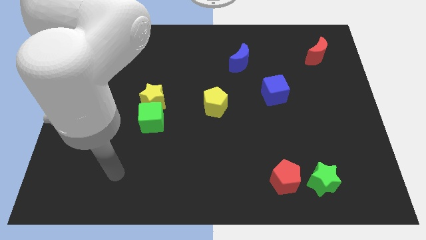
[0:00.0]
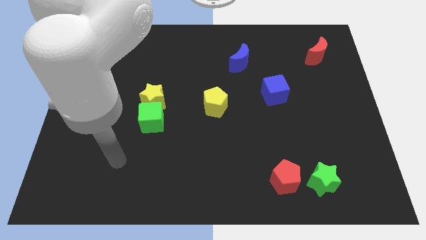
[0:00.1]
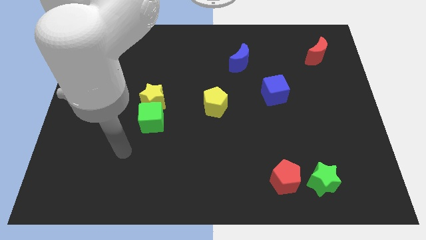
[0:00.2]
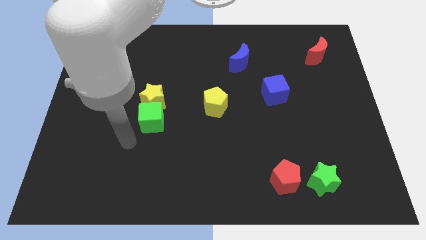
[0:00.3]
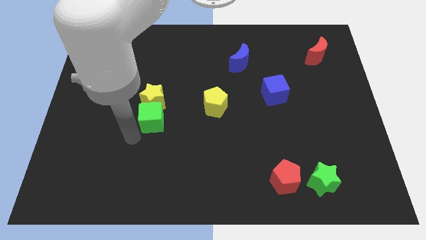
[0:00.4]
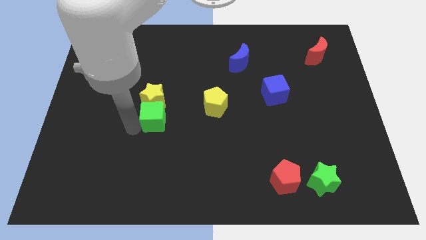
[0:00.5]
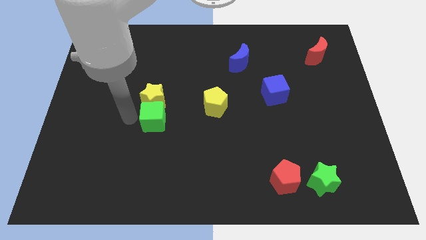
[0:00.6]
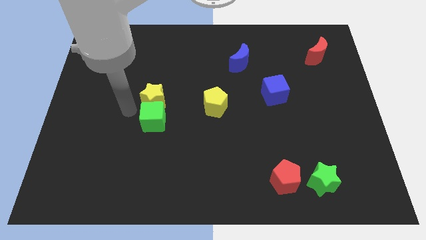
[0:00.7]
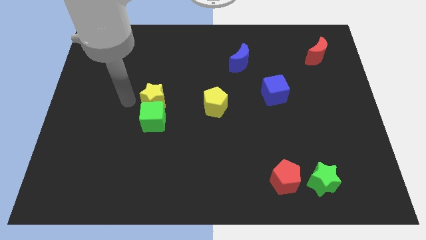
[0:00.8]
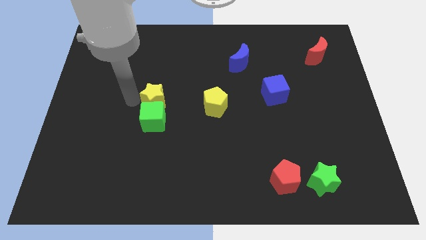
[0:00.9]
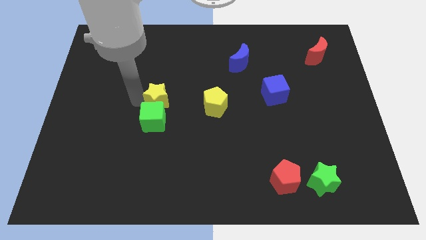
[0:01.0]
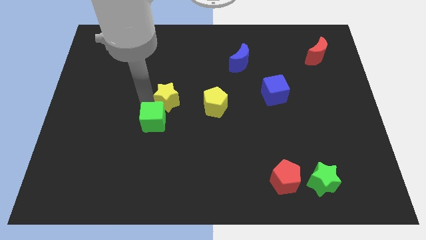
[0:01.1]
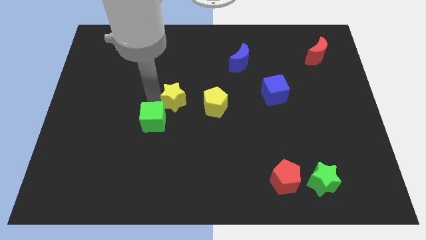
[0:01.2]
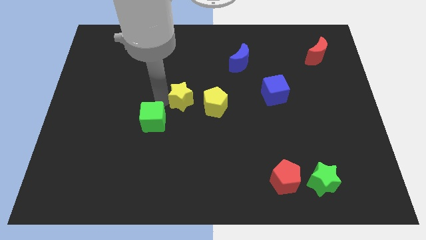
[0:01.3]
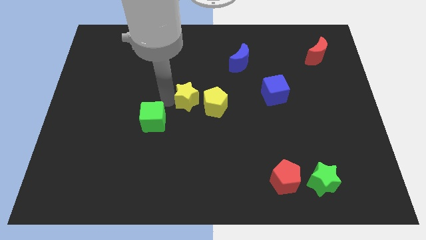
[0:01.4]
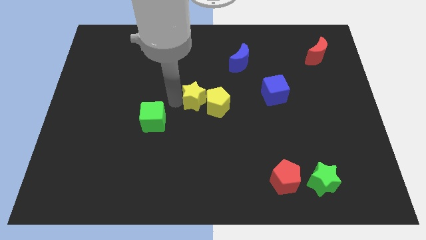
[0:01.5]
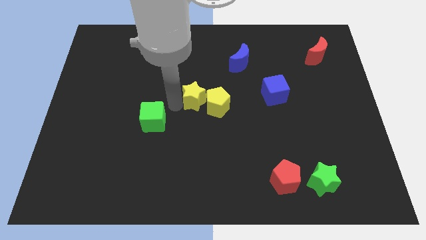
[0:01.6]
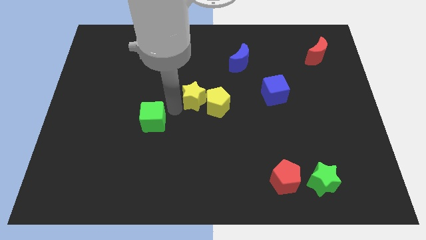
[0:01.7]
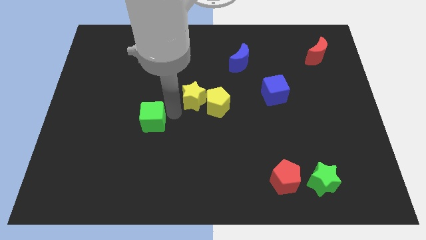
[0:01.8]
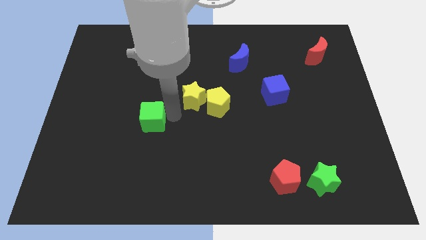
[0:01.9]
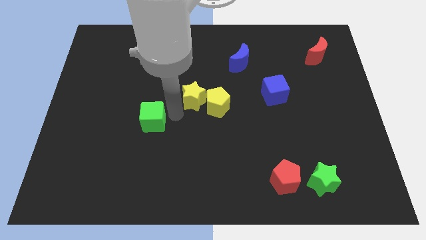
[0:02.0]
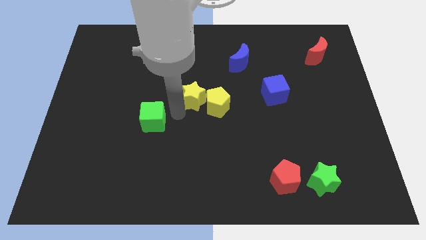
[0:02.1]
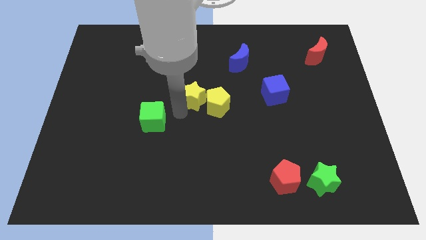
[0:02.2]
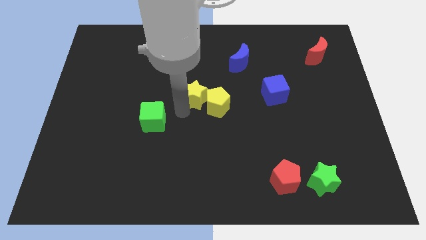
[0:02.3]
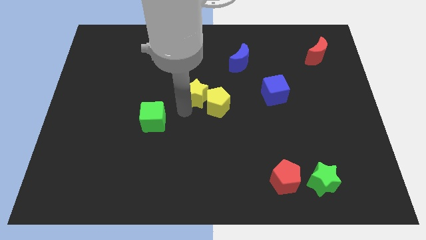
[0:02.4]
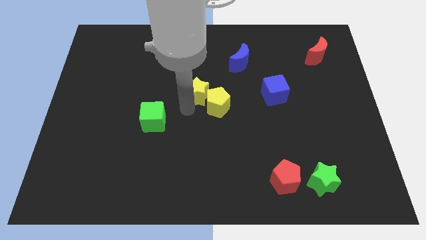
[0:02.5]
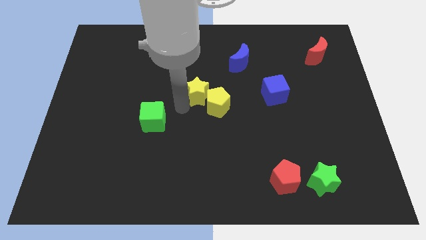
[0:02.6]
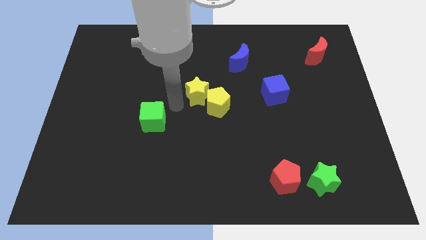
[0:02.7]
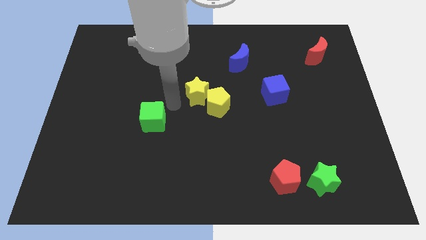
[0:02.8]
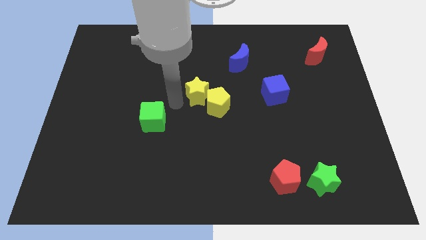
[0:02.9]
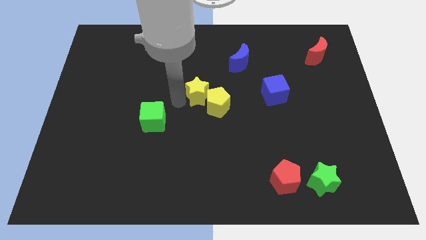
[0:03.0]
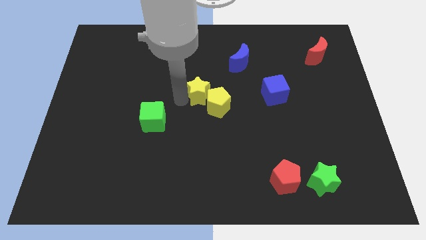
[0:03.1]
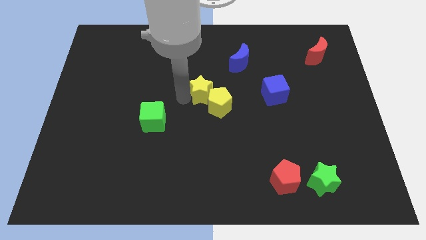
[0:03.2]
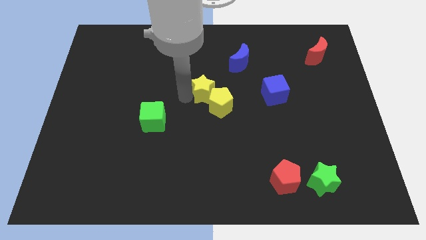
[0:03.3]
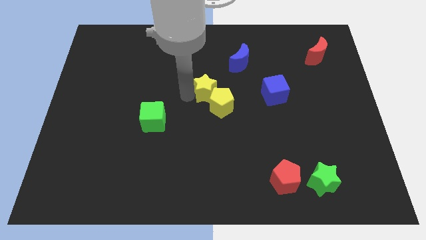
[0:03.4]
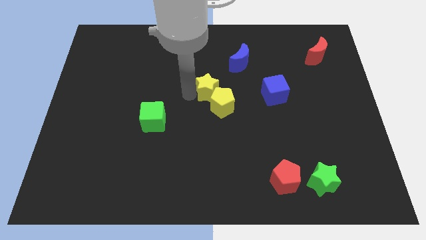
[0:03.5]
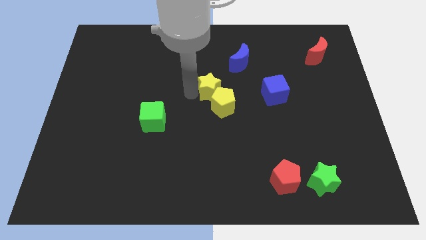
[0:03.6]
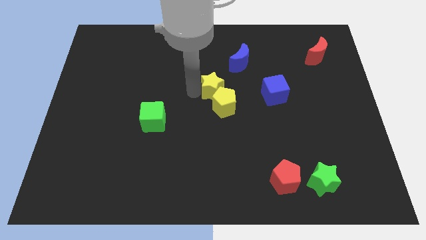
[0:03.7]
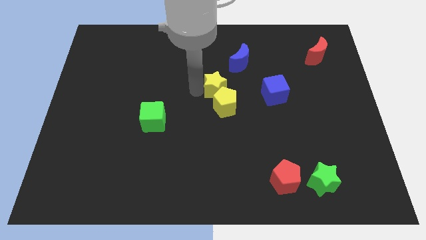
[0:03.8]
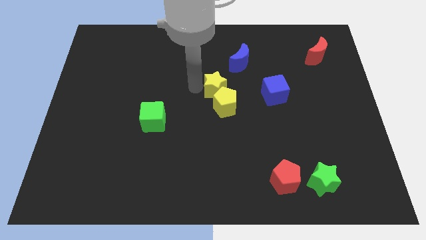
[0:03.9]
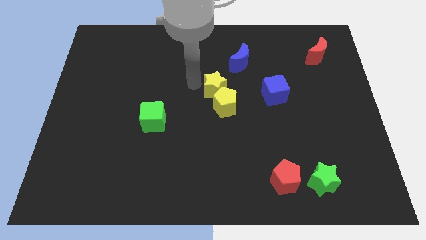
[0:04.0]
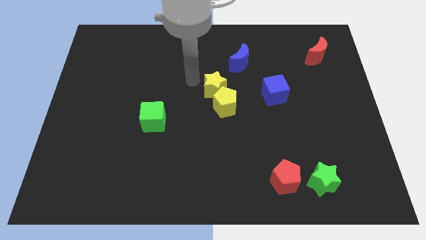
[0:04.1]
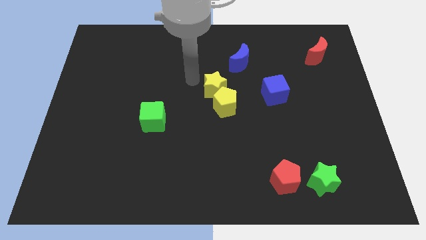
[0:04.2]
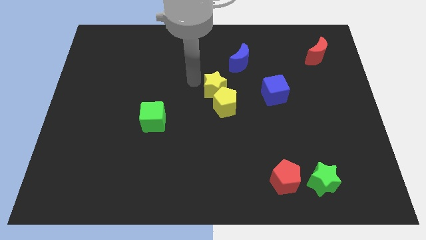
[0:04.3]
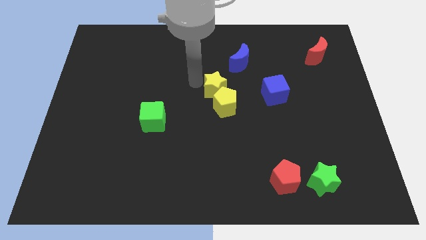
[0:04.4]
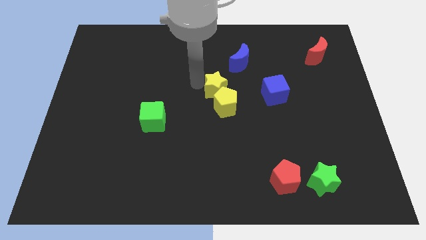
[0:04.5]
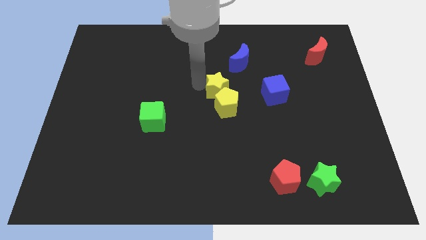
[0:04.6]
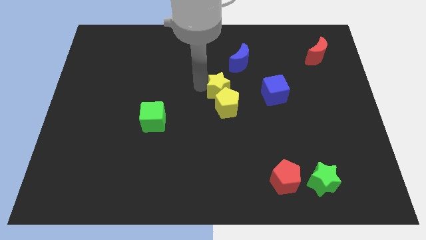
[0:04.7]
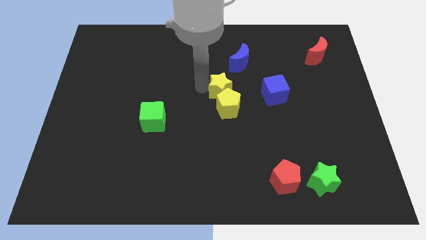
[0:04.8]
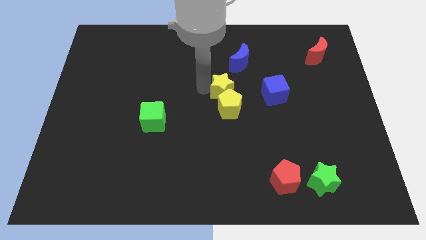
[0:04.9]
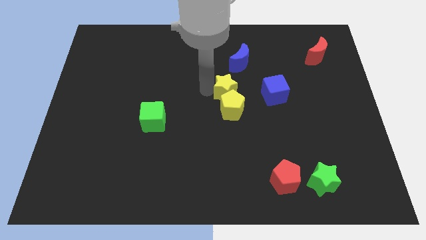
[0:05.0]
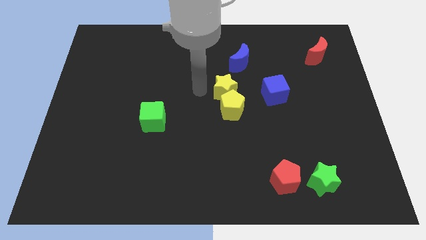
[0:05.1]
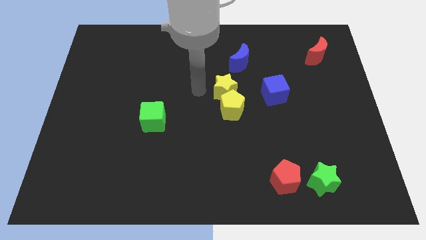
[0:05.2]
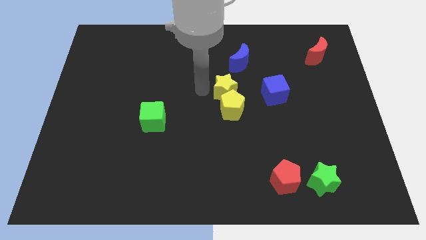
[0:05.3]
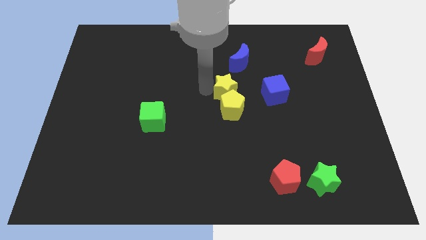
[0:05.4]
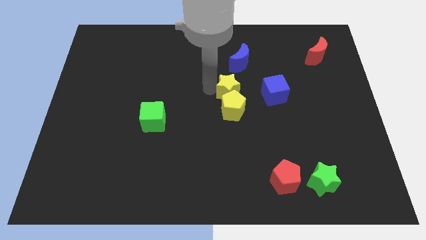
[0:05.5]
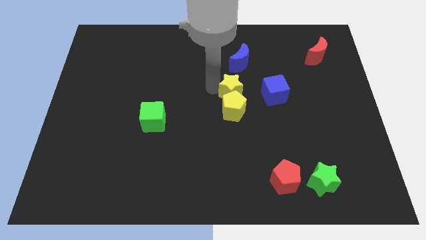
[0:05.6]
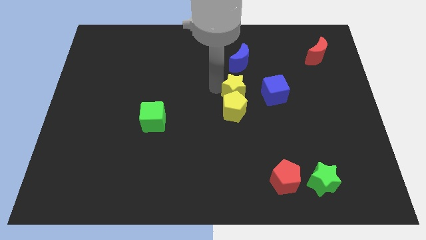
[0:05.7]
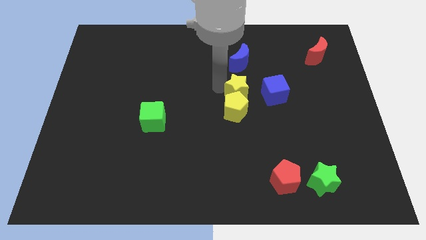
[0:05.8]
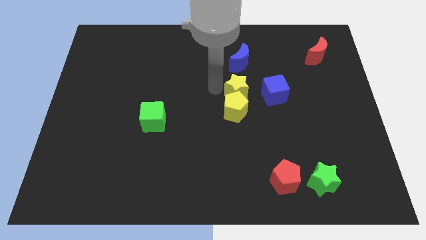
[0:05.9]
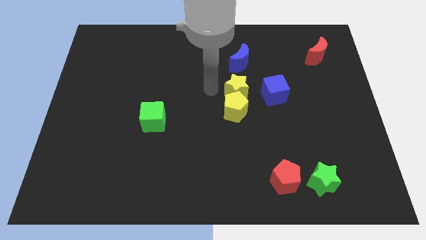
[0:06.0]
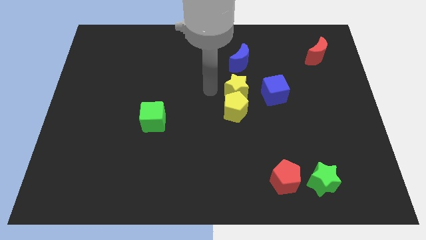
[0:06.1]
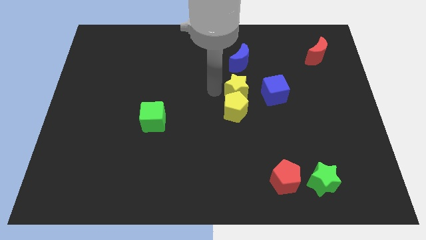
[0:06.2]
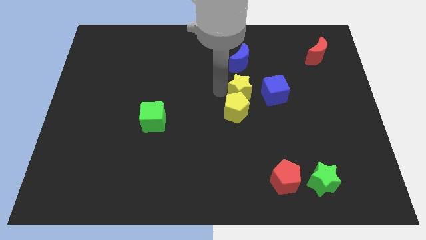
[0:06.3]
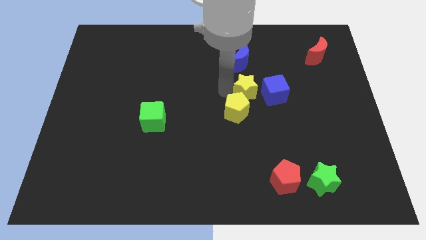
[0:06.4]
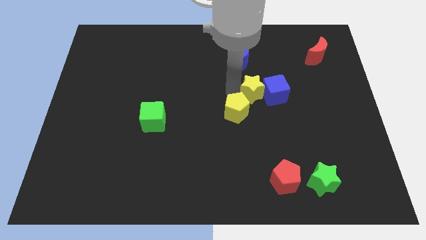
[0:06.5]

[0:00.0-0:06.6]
push the yellow star next to the blue cube
